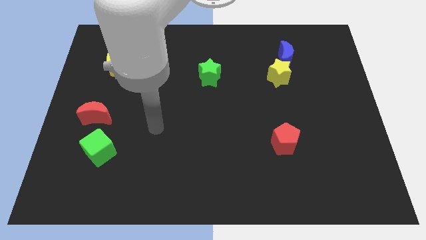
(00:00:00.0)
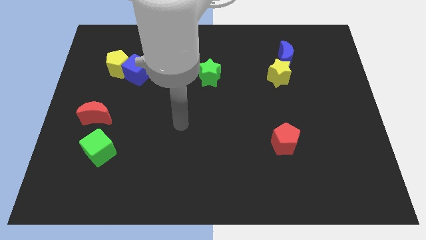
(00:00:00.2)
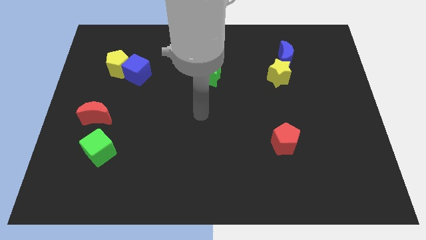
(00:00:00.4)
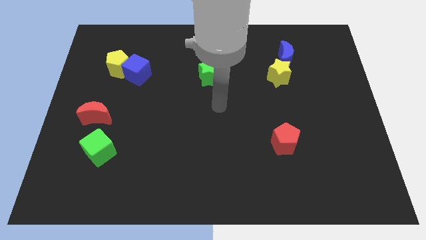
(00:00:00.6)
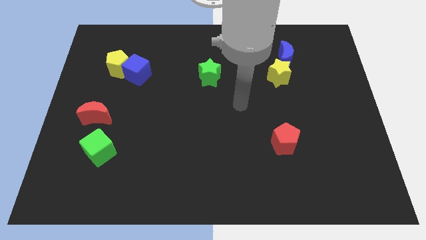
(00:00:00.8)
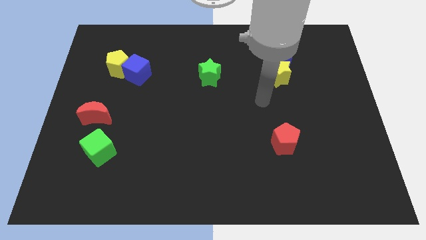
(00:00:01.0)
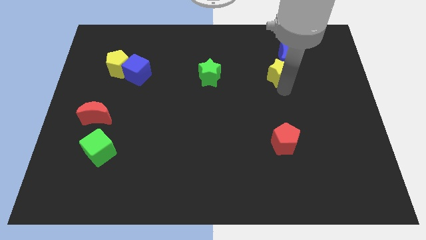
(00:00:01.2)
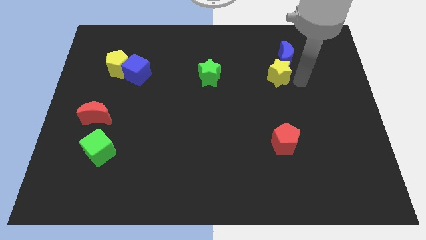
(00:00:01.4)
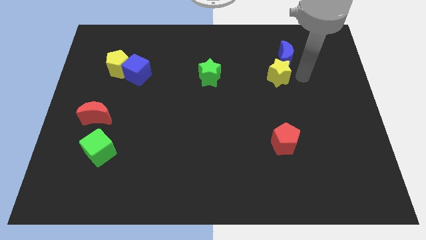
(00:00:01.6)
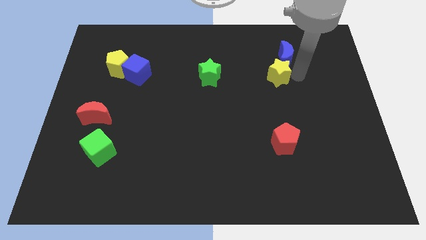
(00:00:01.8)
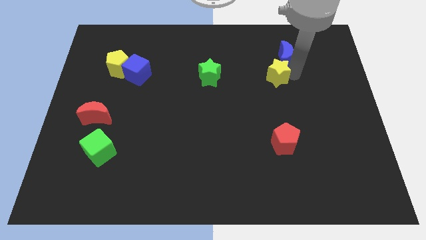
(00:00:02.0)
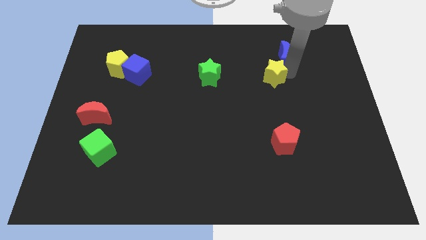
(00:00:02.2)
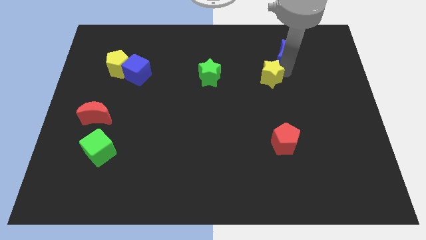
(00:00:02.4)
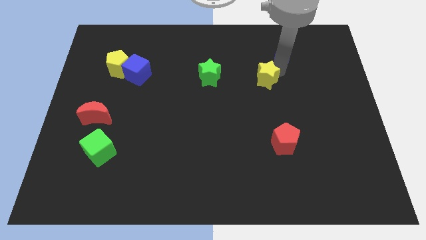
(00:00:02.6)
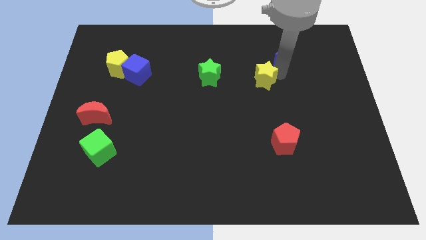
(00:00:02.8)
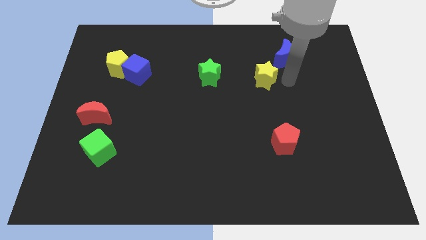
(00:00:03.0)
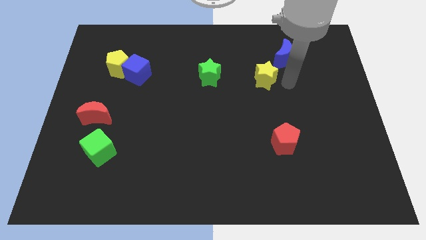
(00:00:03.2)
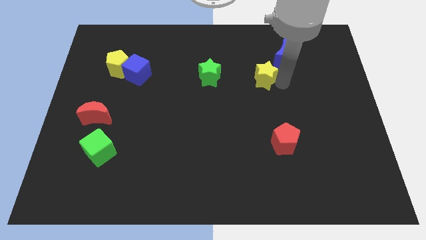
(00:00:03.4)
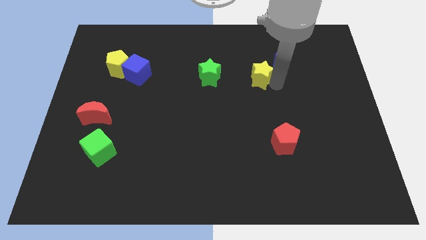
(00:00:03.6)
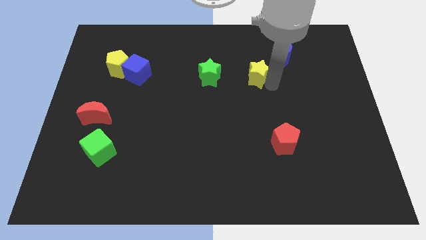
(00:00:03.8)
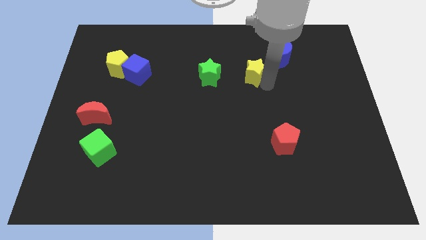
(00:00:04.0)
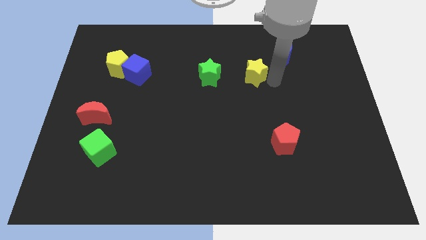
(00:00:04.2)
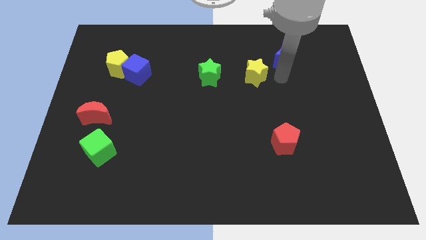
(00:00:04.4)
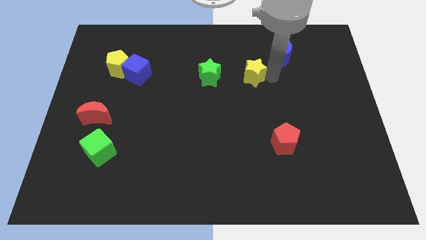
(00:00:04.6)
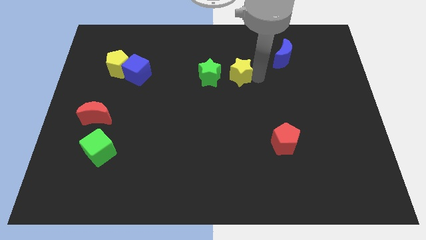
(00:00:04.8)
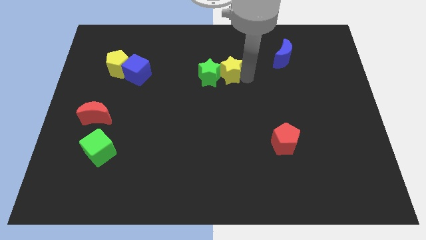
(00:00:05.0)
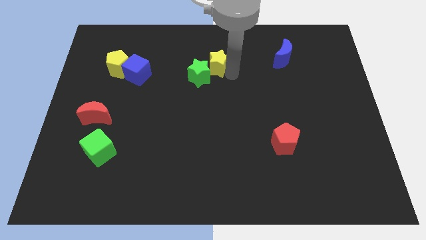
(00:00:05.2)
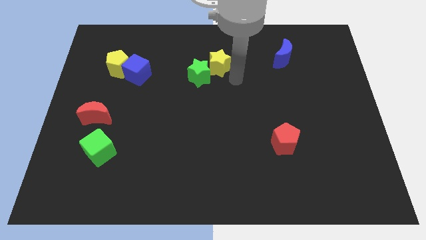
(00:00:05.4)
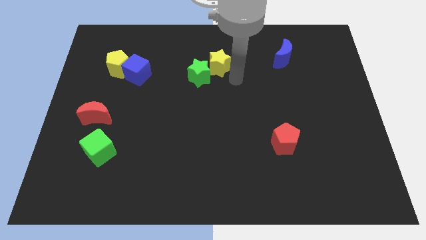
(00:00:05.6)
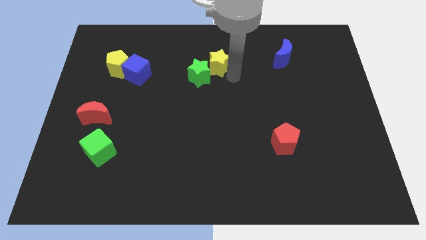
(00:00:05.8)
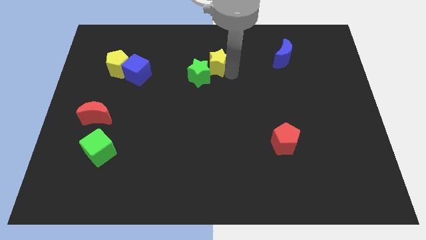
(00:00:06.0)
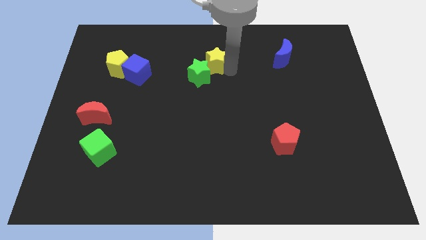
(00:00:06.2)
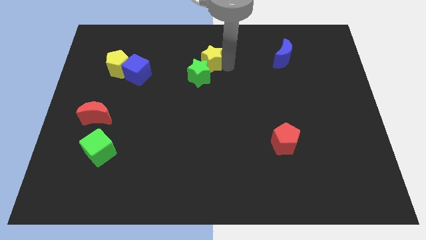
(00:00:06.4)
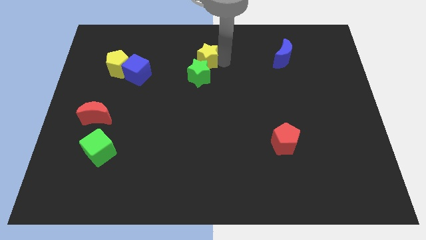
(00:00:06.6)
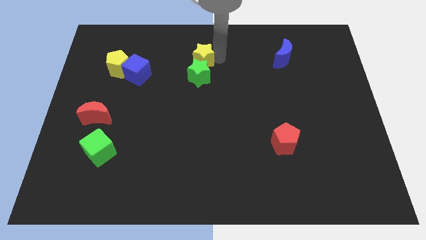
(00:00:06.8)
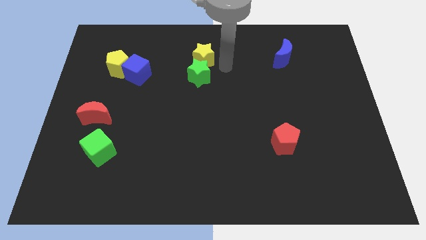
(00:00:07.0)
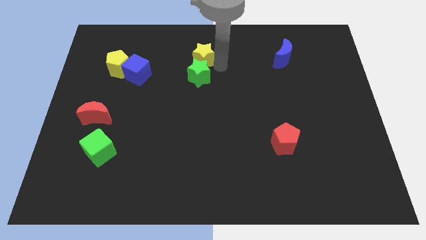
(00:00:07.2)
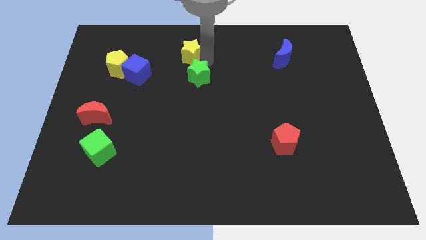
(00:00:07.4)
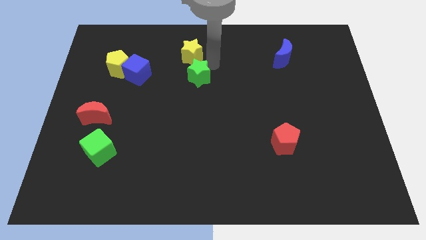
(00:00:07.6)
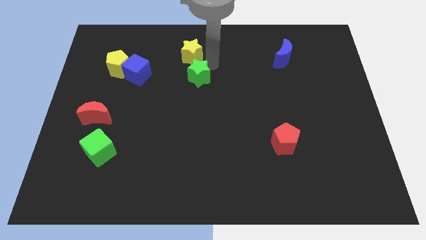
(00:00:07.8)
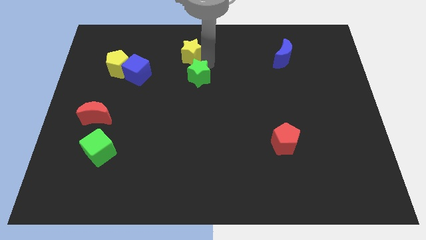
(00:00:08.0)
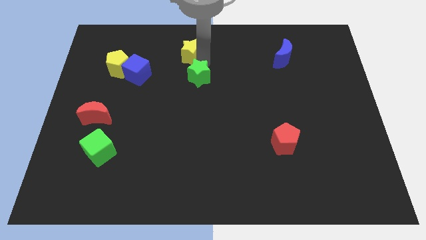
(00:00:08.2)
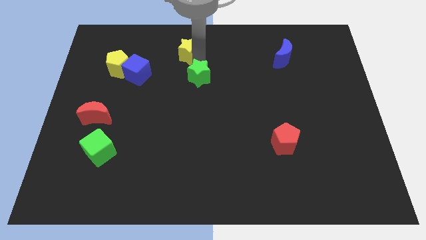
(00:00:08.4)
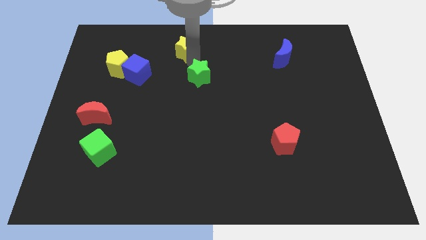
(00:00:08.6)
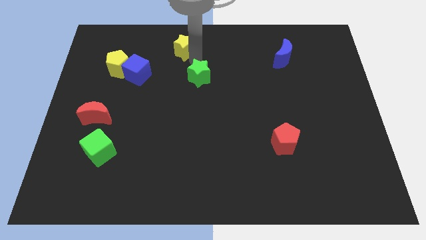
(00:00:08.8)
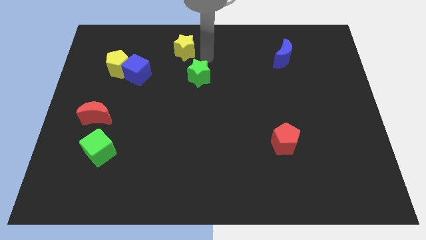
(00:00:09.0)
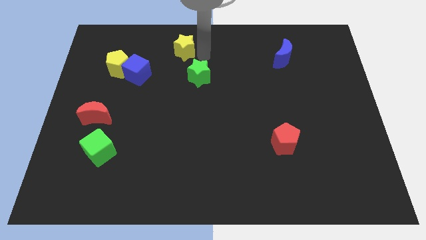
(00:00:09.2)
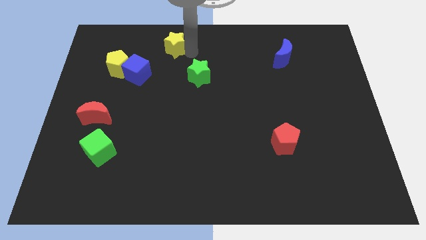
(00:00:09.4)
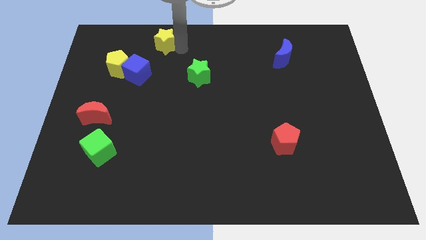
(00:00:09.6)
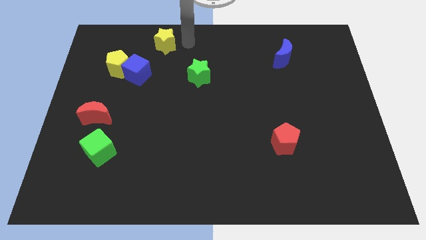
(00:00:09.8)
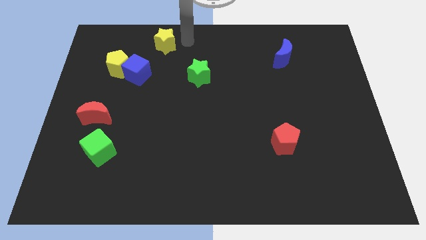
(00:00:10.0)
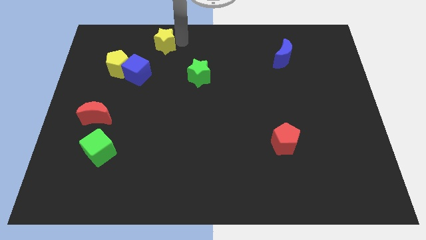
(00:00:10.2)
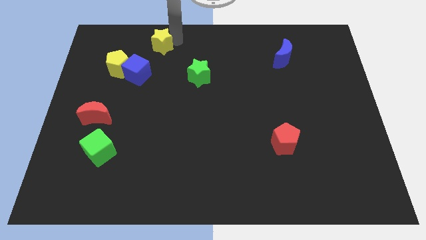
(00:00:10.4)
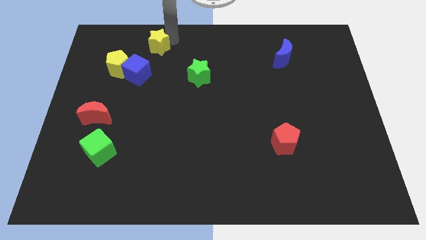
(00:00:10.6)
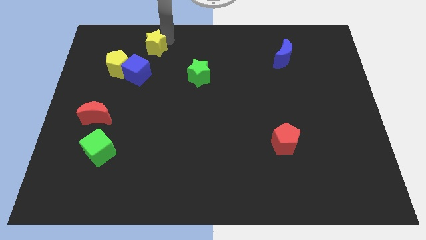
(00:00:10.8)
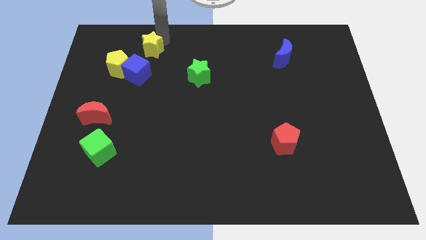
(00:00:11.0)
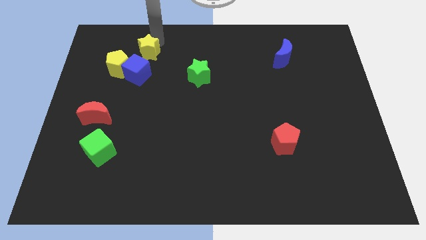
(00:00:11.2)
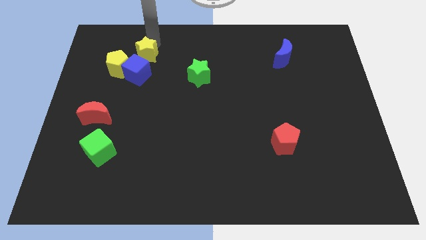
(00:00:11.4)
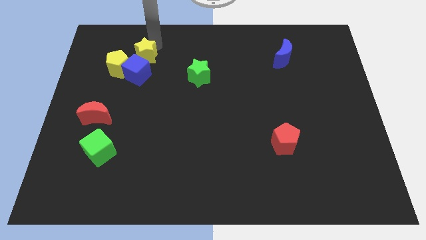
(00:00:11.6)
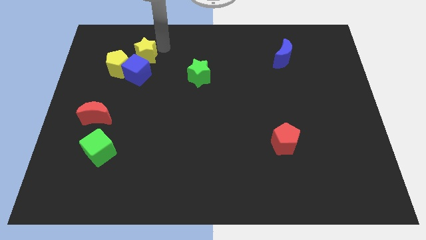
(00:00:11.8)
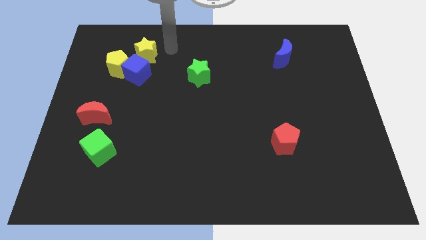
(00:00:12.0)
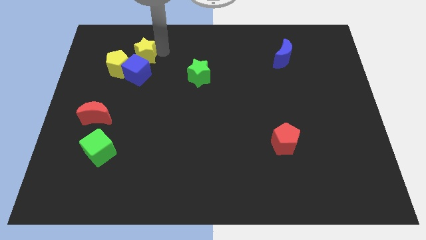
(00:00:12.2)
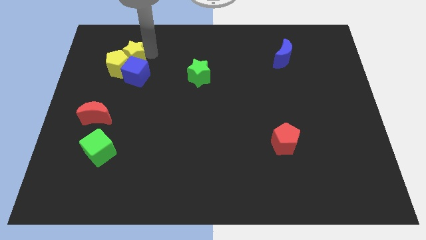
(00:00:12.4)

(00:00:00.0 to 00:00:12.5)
slide the yellow star towards the yellow pentagon
